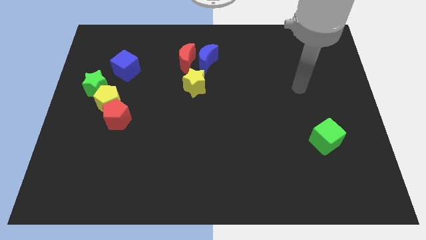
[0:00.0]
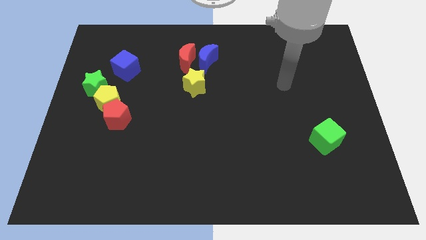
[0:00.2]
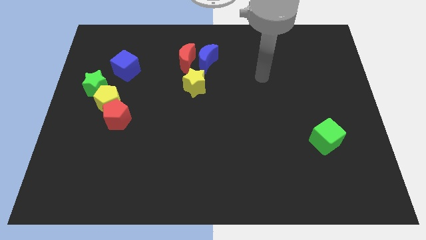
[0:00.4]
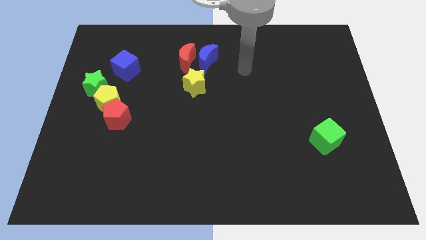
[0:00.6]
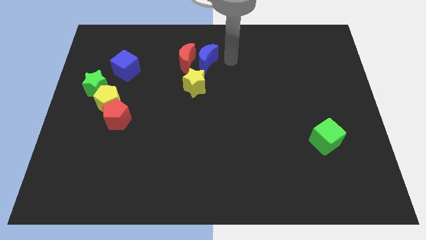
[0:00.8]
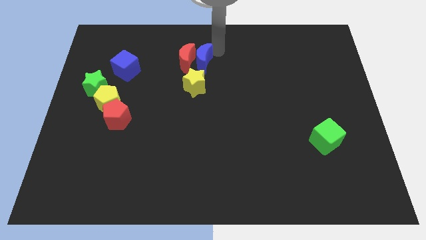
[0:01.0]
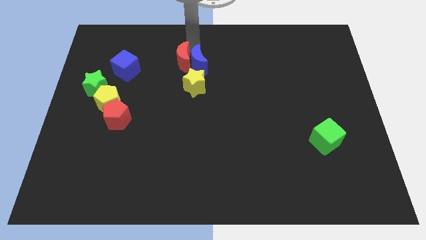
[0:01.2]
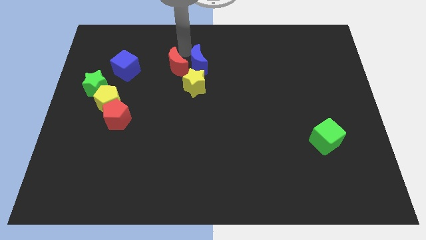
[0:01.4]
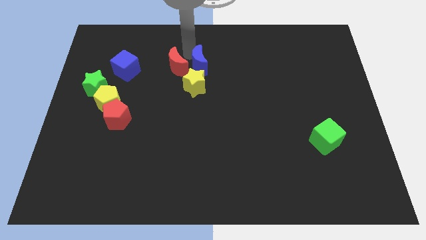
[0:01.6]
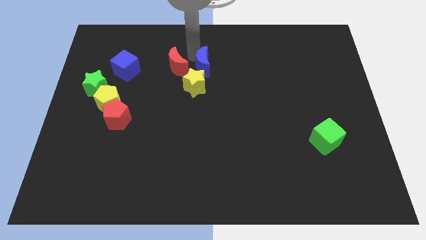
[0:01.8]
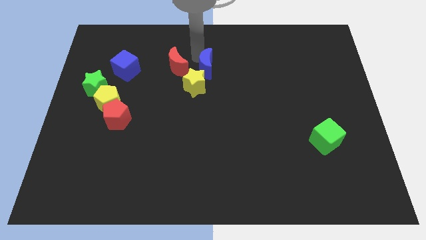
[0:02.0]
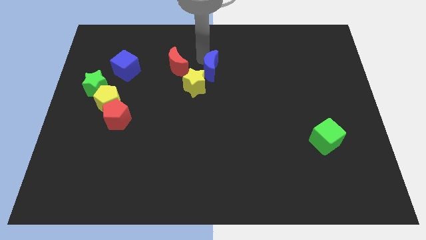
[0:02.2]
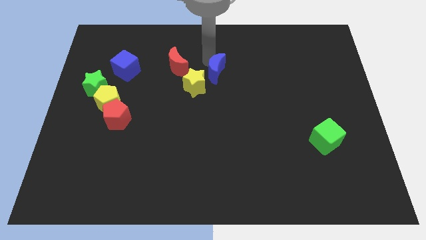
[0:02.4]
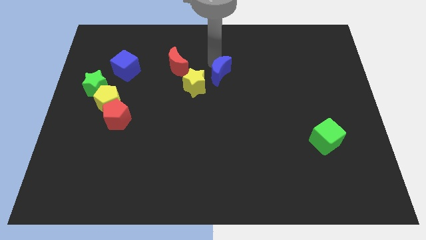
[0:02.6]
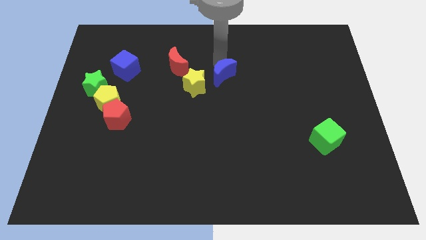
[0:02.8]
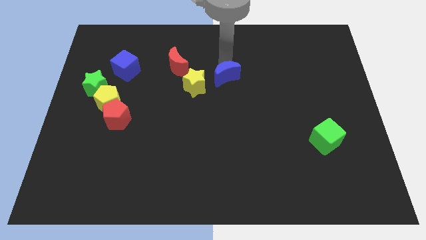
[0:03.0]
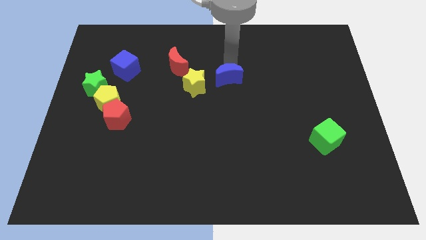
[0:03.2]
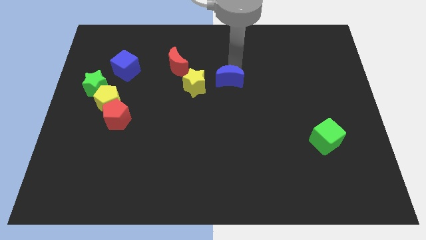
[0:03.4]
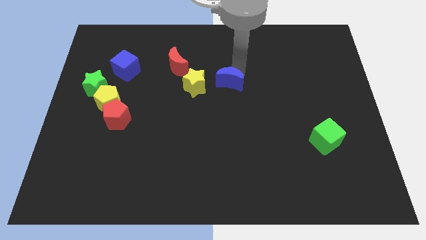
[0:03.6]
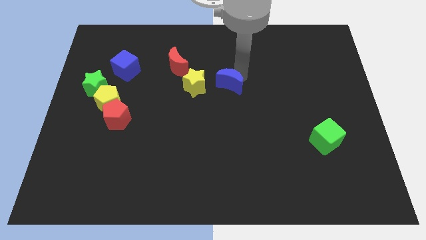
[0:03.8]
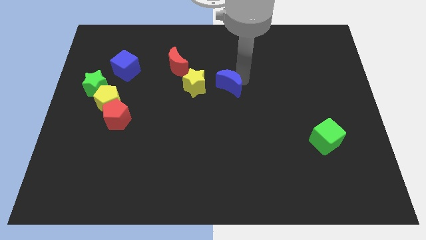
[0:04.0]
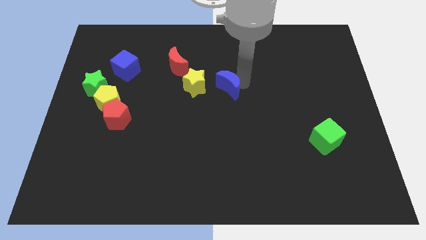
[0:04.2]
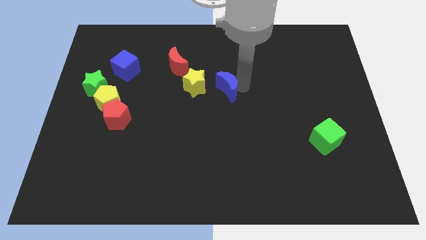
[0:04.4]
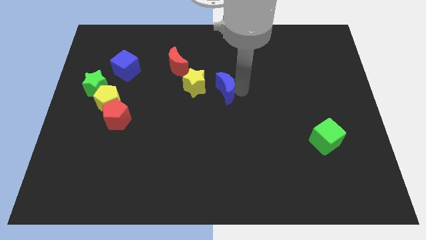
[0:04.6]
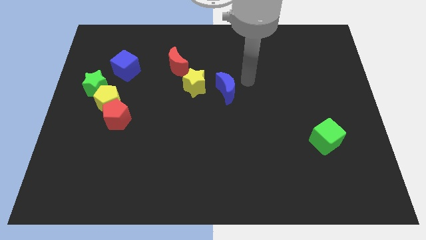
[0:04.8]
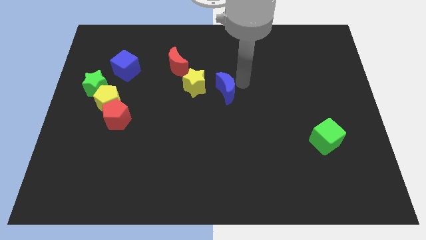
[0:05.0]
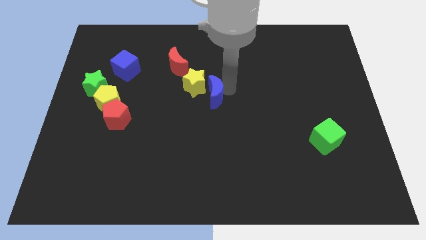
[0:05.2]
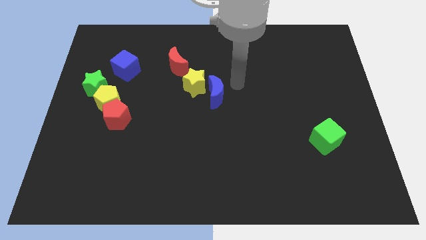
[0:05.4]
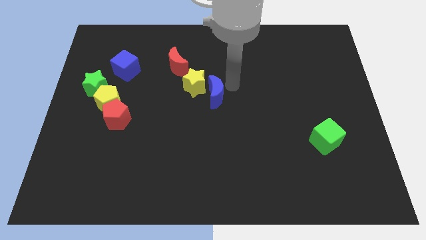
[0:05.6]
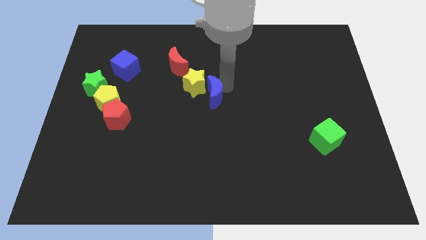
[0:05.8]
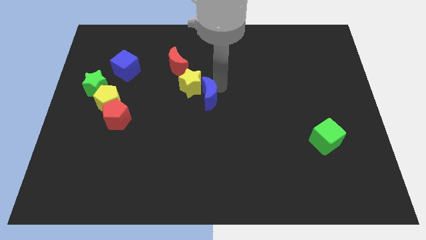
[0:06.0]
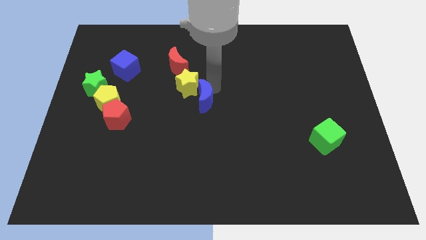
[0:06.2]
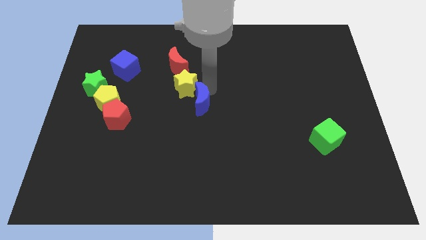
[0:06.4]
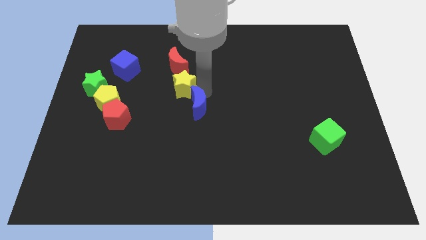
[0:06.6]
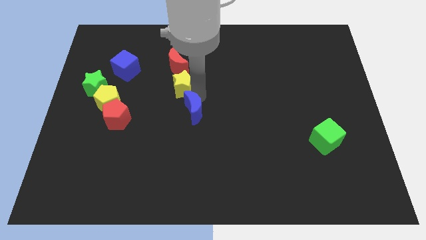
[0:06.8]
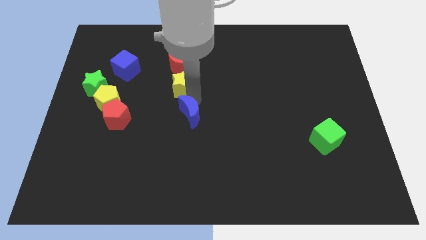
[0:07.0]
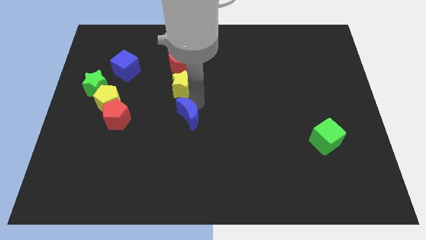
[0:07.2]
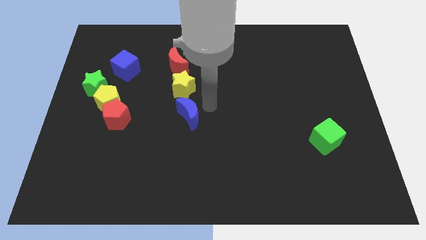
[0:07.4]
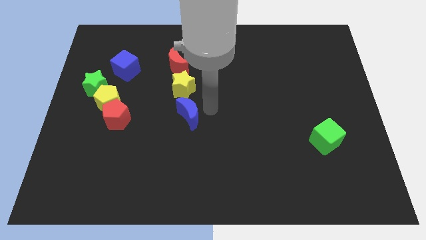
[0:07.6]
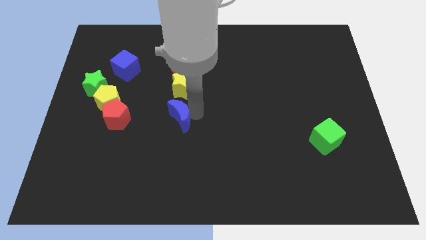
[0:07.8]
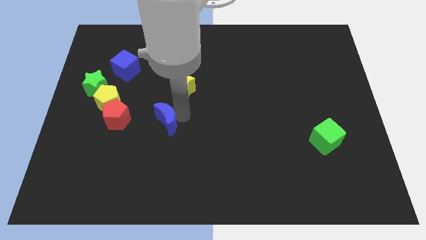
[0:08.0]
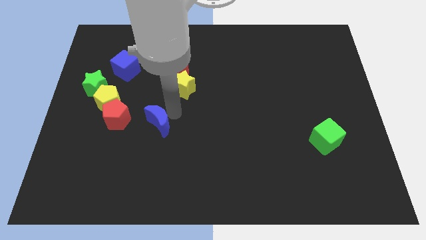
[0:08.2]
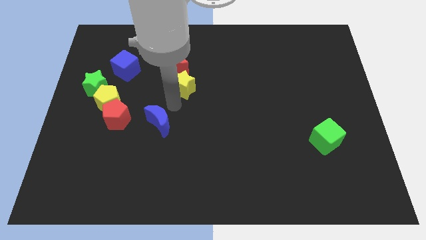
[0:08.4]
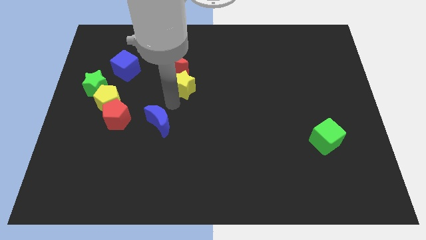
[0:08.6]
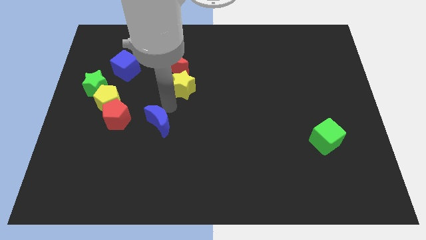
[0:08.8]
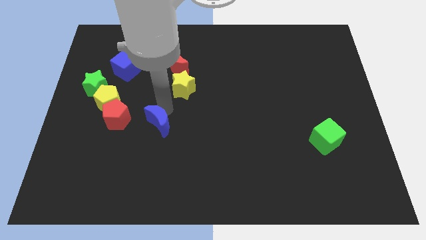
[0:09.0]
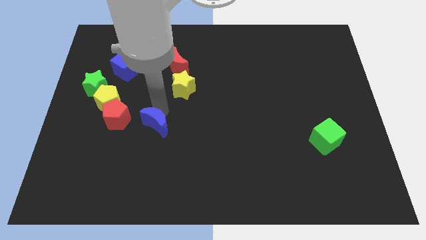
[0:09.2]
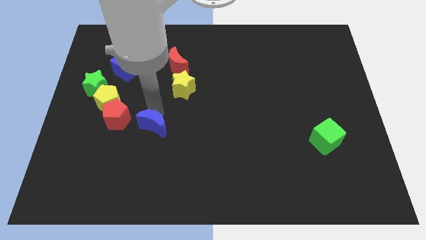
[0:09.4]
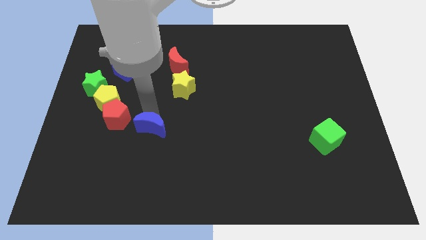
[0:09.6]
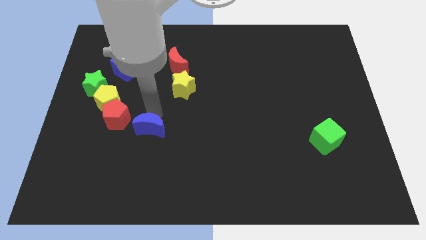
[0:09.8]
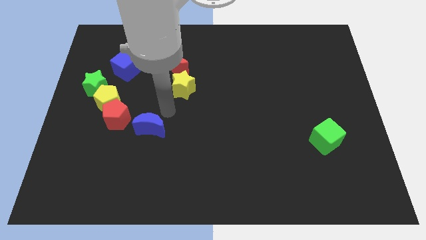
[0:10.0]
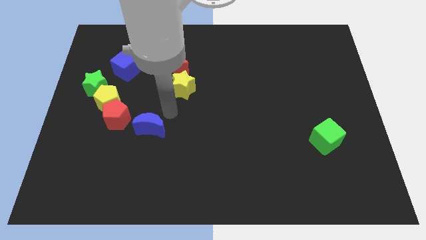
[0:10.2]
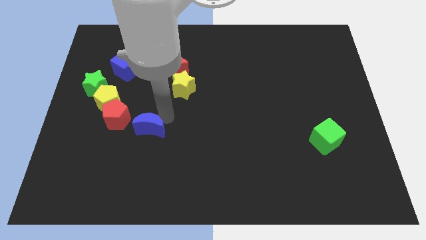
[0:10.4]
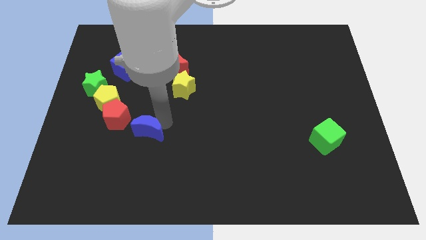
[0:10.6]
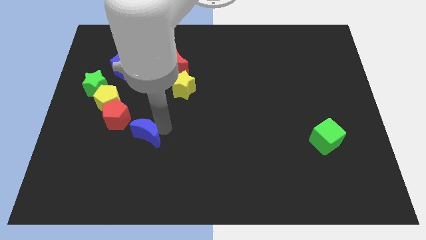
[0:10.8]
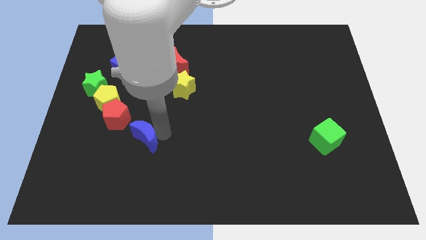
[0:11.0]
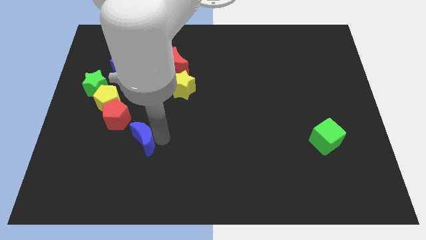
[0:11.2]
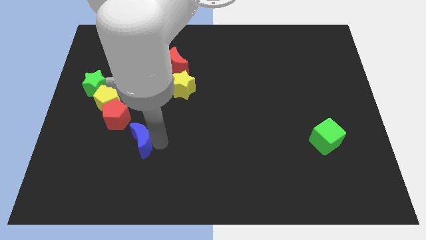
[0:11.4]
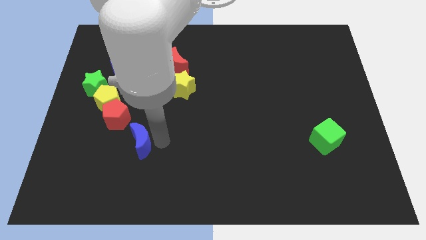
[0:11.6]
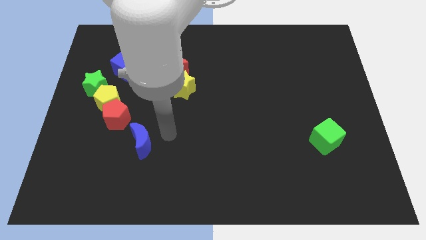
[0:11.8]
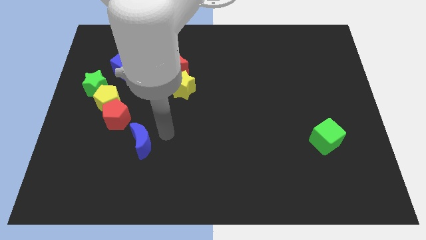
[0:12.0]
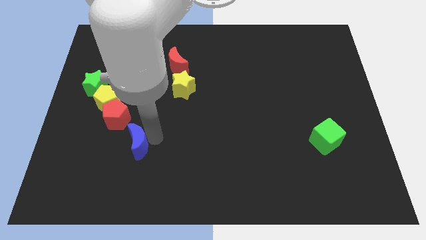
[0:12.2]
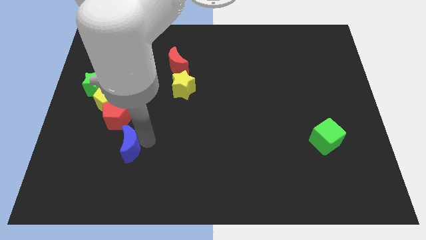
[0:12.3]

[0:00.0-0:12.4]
push the blue moon below the red pentagon

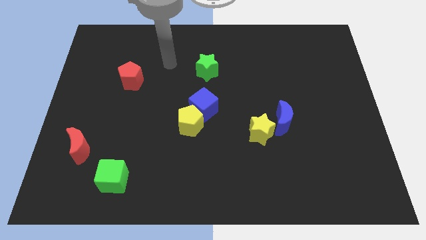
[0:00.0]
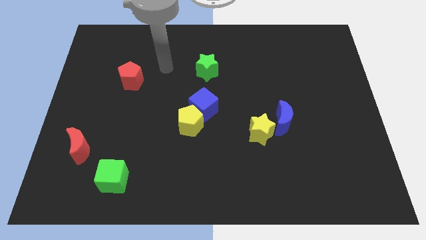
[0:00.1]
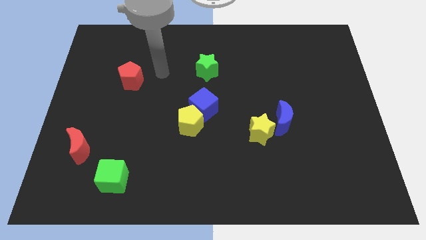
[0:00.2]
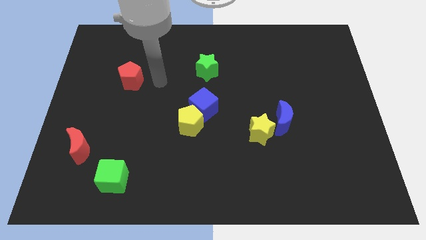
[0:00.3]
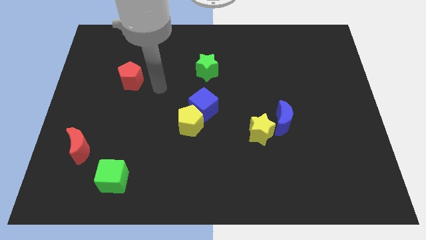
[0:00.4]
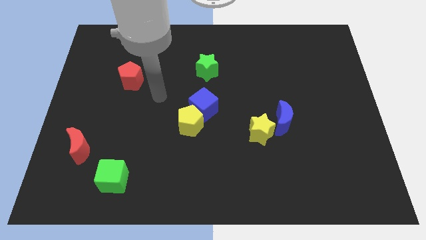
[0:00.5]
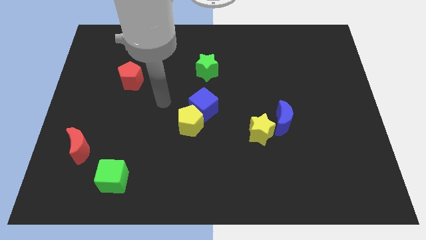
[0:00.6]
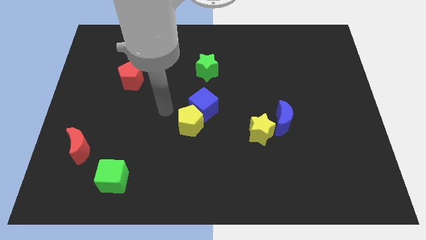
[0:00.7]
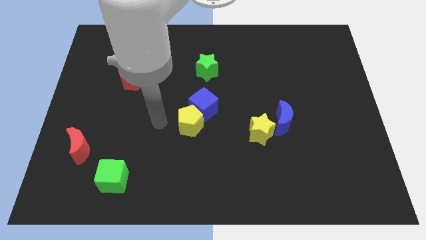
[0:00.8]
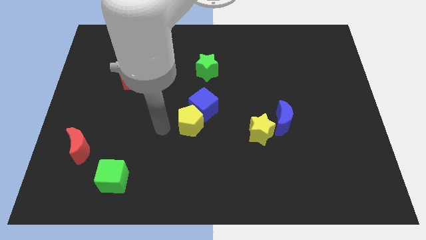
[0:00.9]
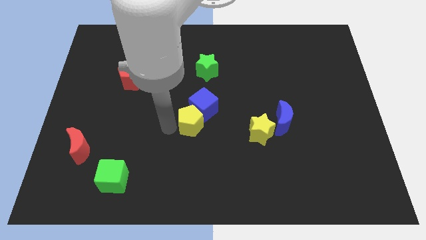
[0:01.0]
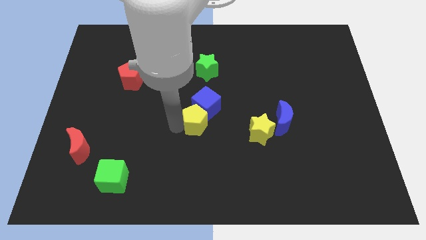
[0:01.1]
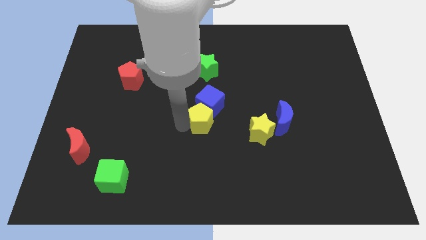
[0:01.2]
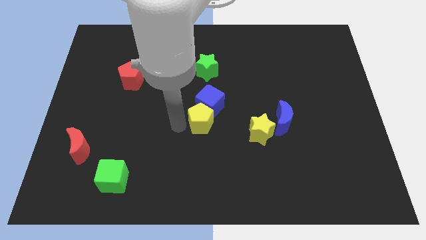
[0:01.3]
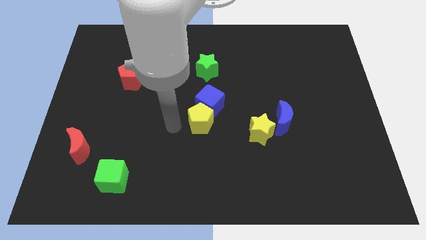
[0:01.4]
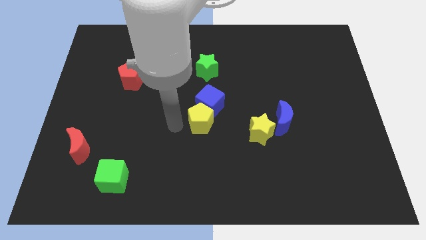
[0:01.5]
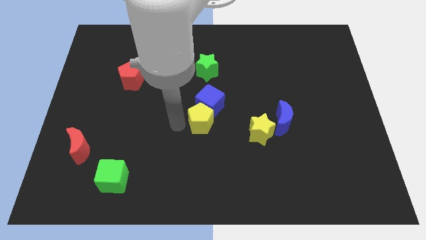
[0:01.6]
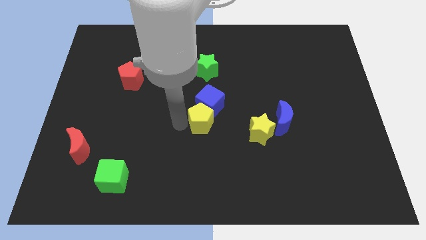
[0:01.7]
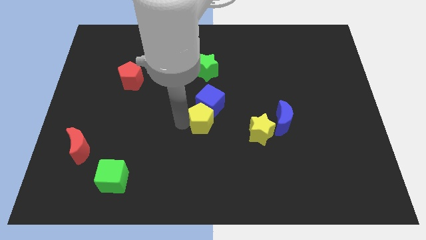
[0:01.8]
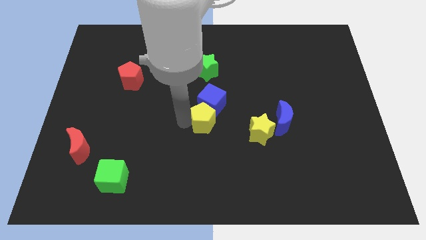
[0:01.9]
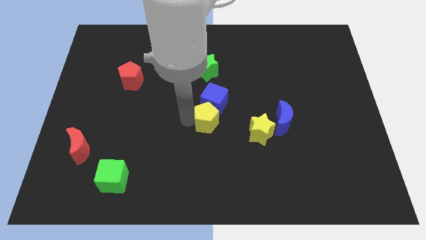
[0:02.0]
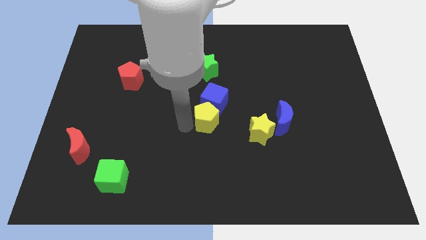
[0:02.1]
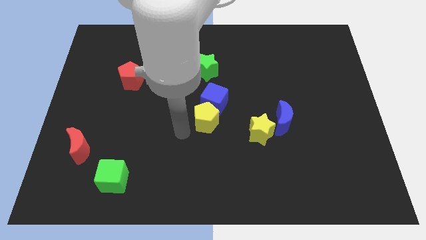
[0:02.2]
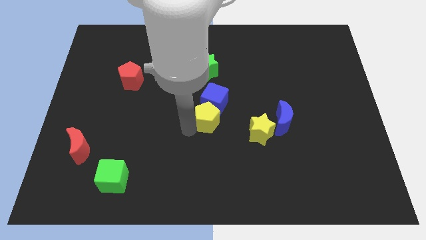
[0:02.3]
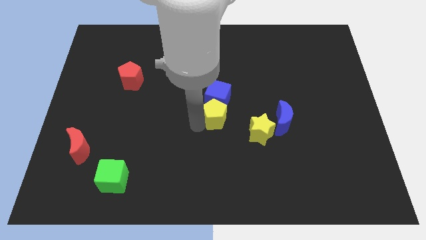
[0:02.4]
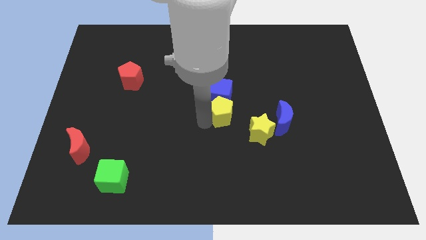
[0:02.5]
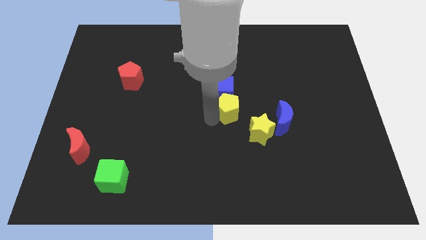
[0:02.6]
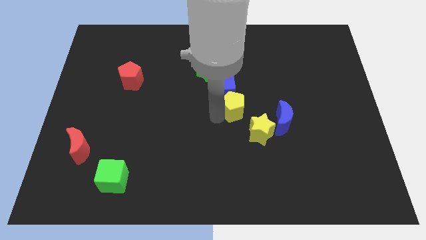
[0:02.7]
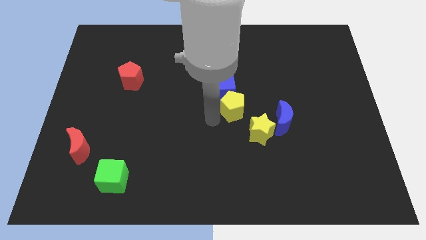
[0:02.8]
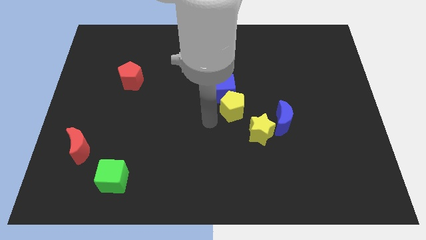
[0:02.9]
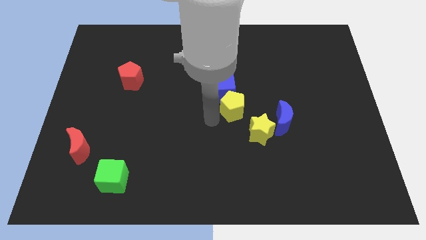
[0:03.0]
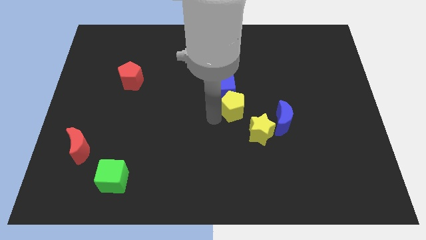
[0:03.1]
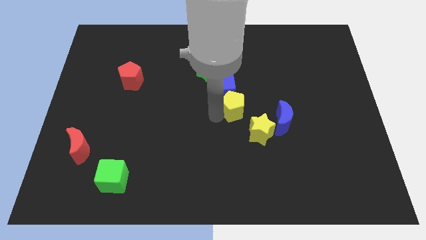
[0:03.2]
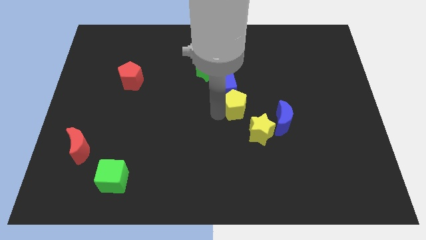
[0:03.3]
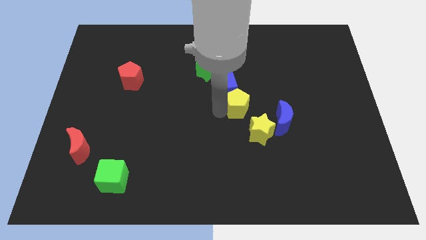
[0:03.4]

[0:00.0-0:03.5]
slide the yellow pentagon to the top of the yellow star
